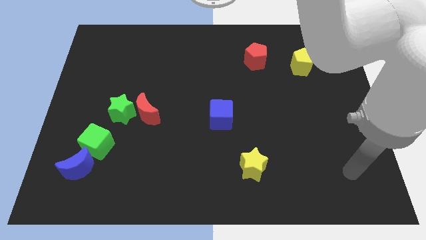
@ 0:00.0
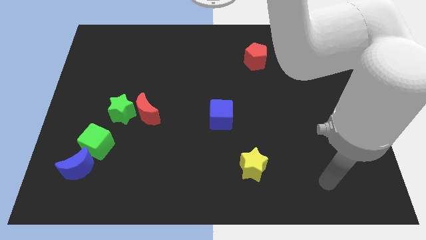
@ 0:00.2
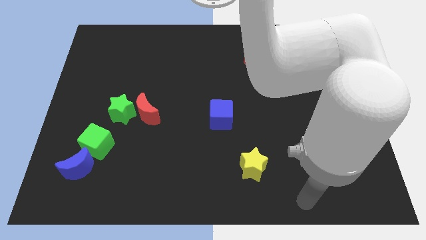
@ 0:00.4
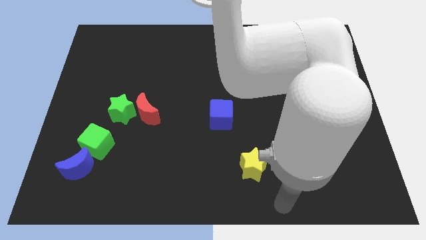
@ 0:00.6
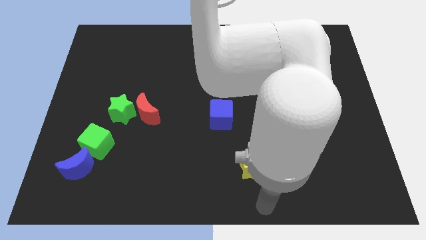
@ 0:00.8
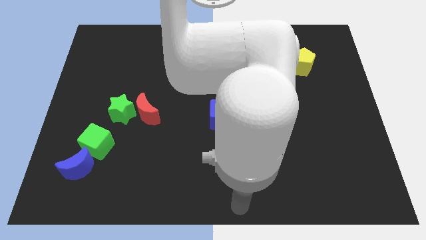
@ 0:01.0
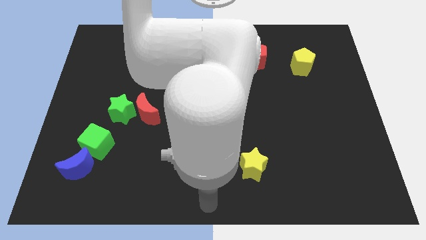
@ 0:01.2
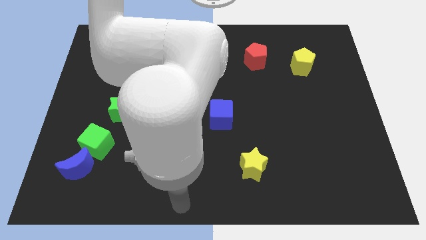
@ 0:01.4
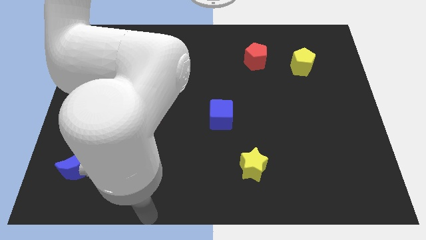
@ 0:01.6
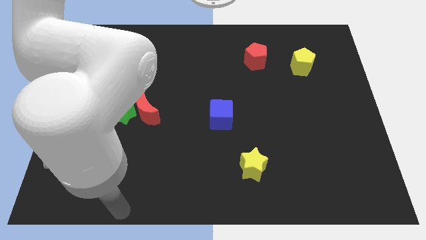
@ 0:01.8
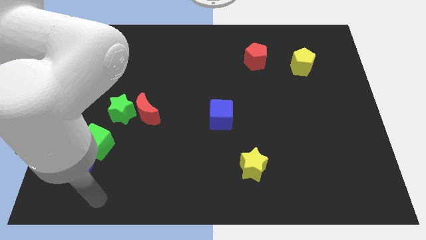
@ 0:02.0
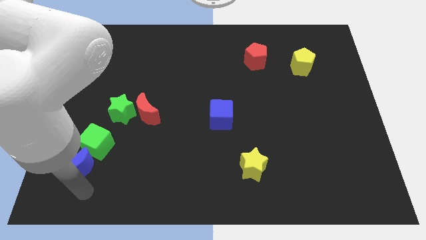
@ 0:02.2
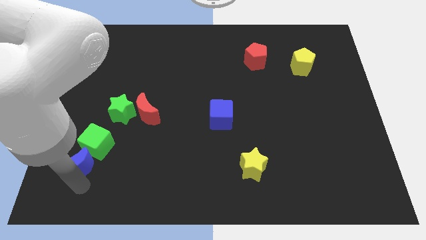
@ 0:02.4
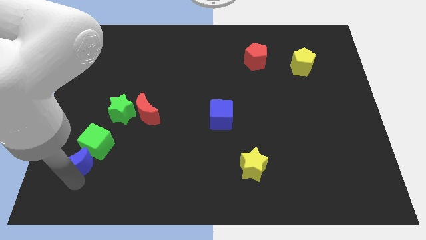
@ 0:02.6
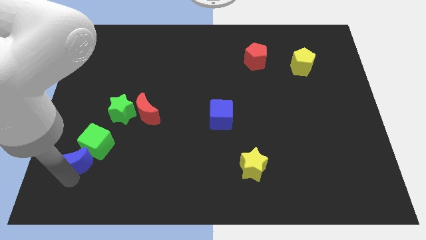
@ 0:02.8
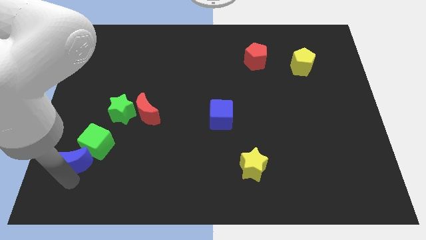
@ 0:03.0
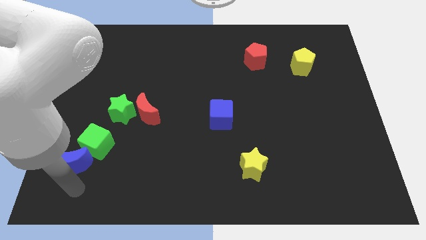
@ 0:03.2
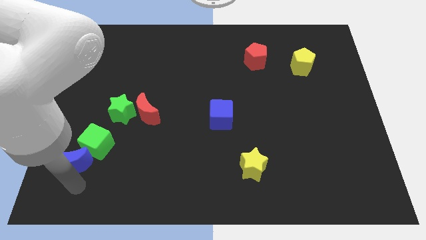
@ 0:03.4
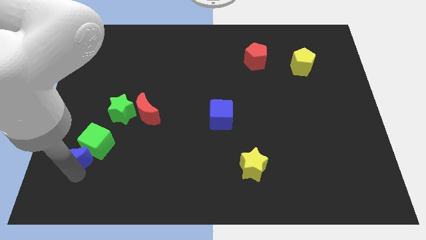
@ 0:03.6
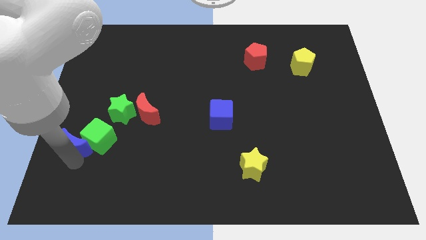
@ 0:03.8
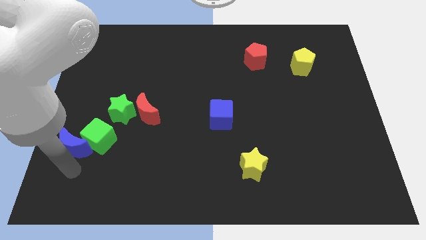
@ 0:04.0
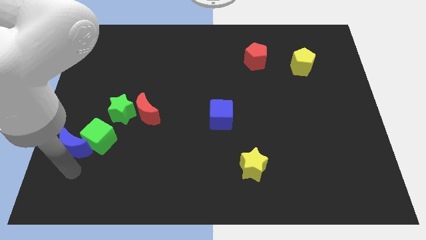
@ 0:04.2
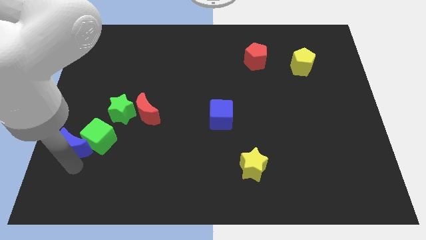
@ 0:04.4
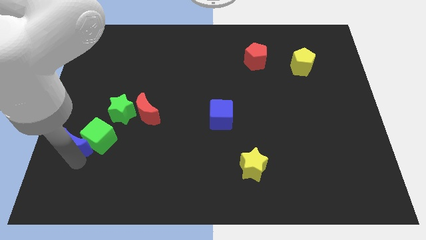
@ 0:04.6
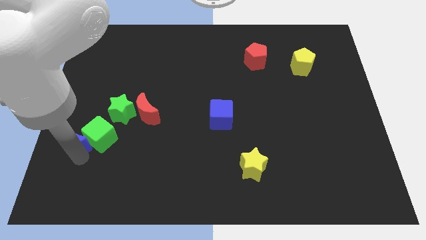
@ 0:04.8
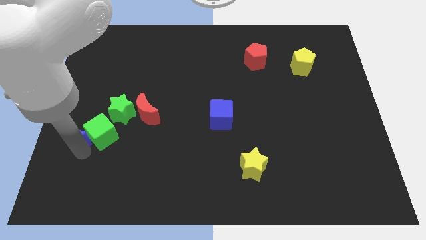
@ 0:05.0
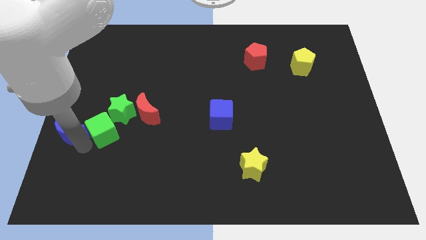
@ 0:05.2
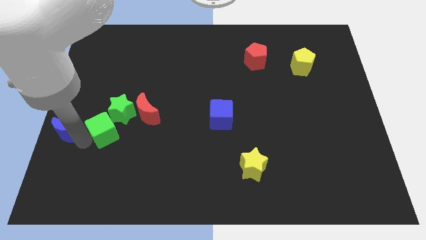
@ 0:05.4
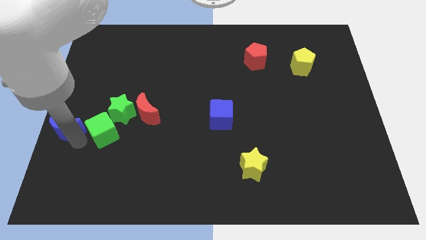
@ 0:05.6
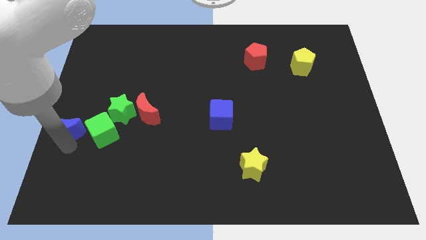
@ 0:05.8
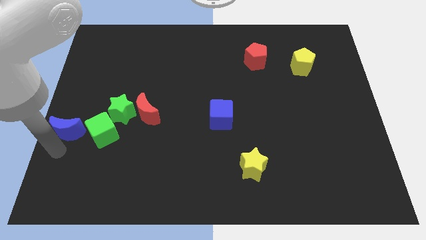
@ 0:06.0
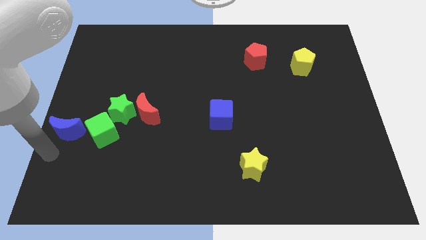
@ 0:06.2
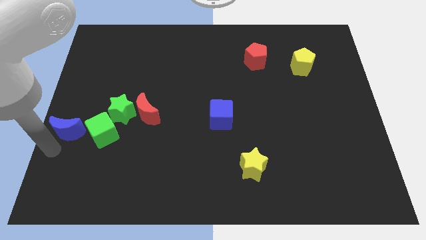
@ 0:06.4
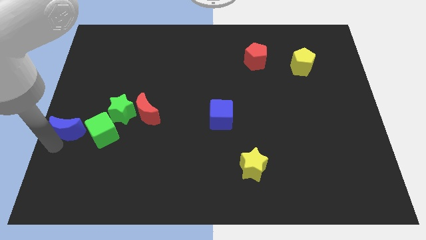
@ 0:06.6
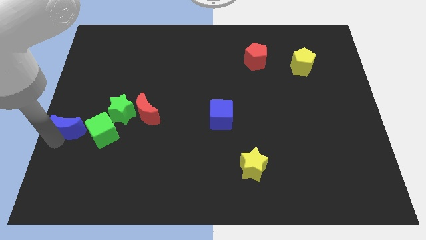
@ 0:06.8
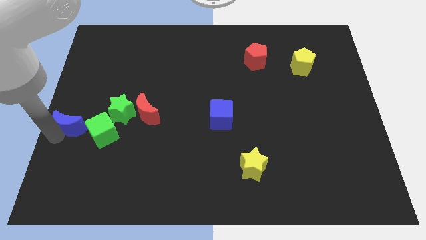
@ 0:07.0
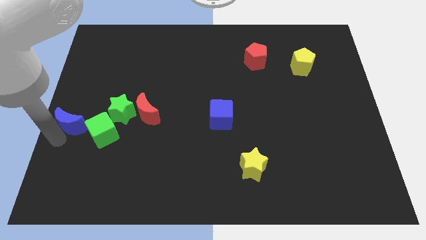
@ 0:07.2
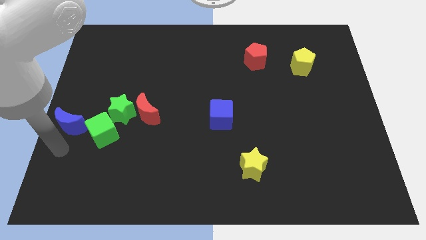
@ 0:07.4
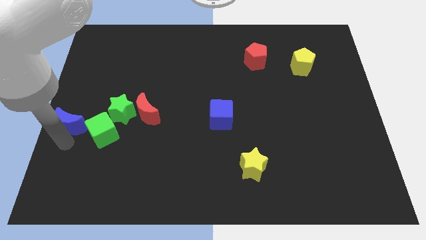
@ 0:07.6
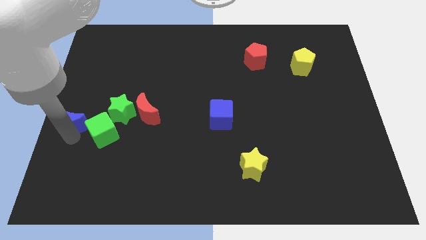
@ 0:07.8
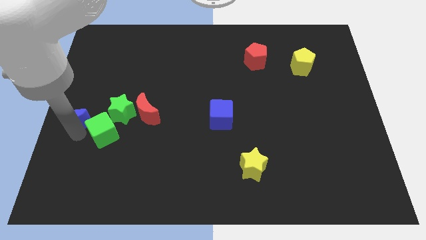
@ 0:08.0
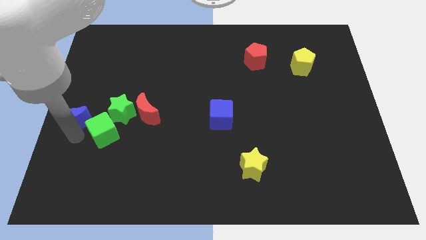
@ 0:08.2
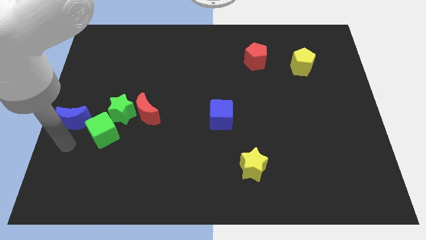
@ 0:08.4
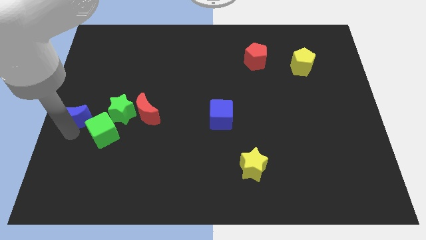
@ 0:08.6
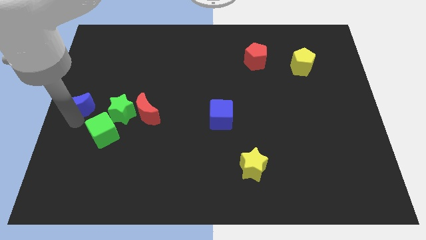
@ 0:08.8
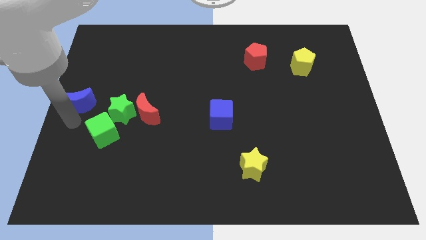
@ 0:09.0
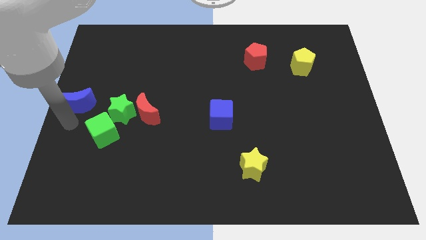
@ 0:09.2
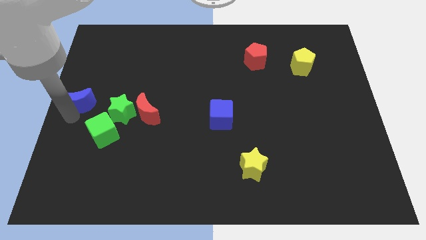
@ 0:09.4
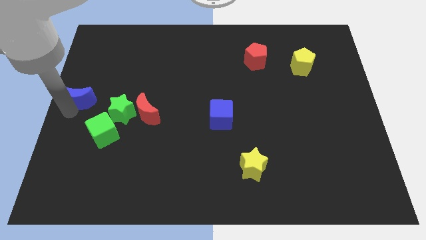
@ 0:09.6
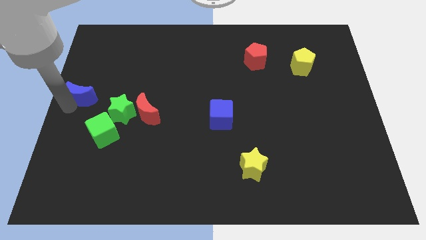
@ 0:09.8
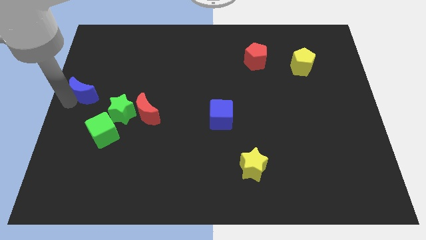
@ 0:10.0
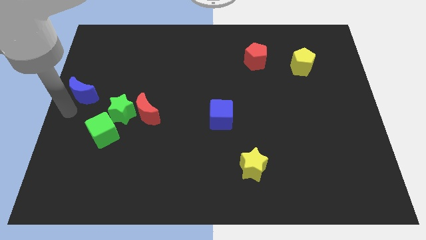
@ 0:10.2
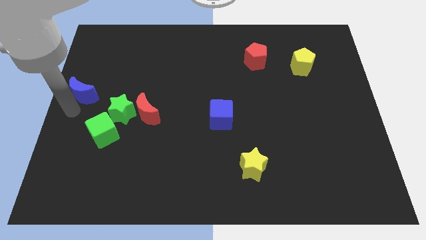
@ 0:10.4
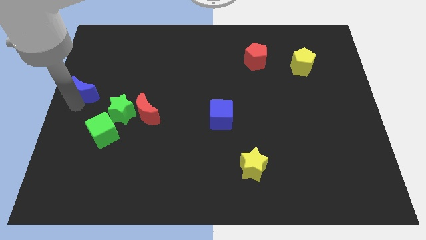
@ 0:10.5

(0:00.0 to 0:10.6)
push the blue moon up

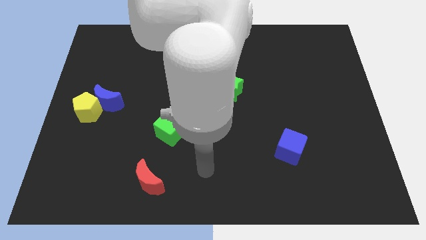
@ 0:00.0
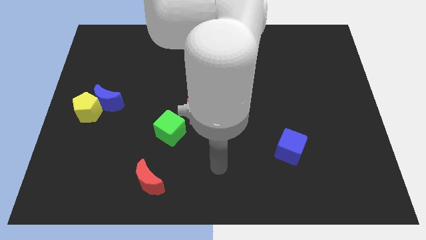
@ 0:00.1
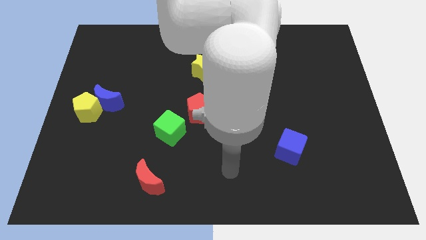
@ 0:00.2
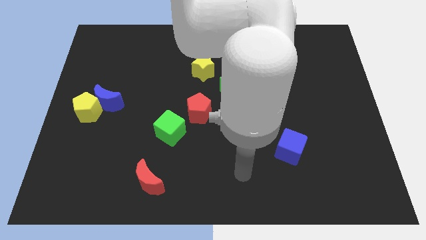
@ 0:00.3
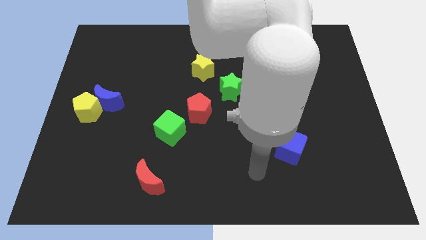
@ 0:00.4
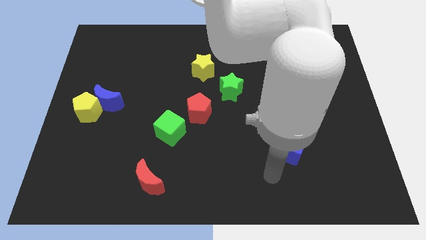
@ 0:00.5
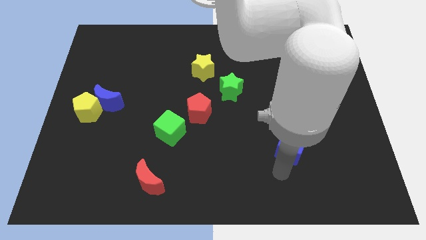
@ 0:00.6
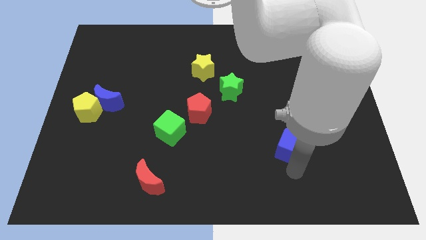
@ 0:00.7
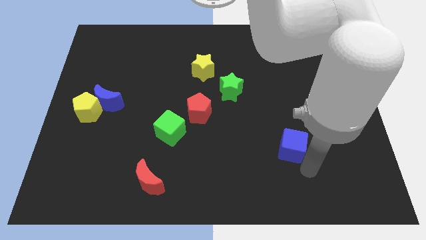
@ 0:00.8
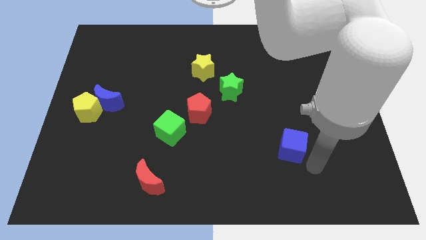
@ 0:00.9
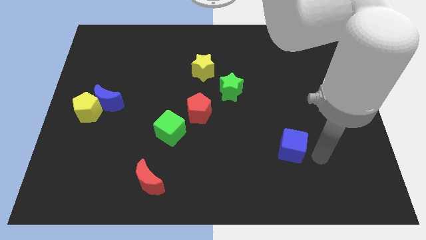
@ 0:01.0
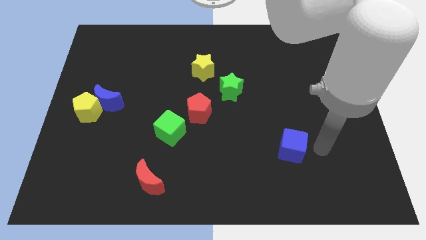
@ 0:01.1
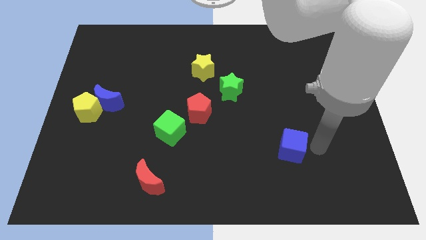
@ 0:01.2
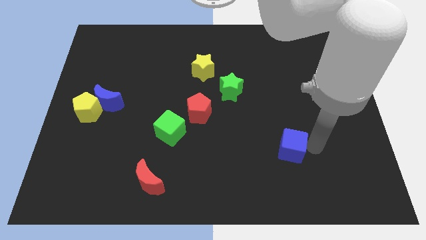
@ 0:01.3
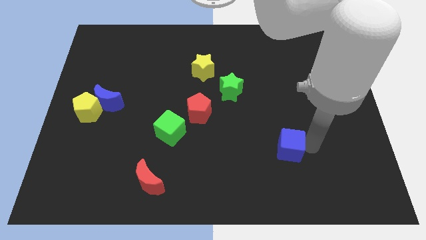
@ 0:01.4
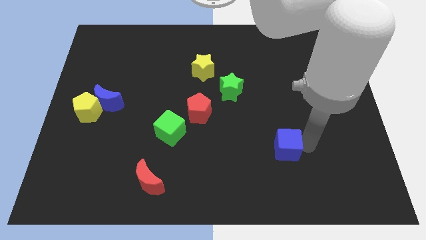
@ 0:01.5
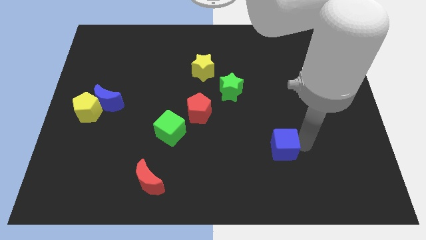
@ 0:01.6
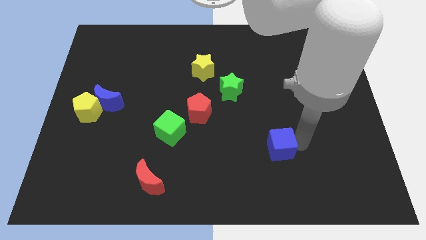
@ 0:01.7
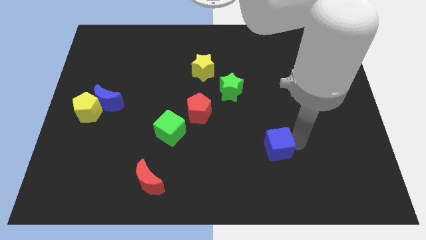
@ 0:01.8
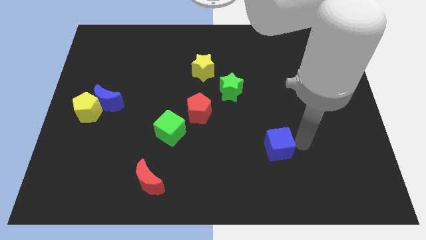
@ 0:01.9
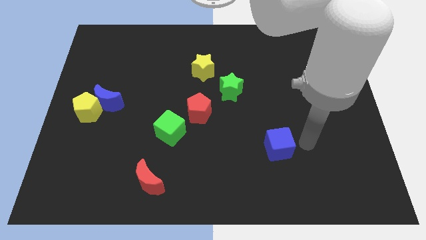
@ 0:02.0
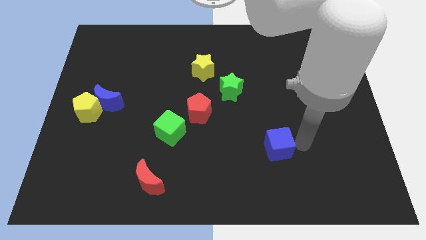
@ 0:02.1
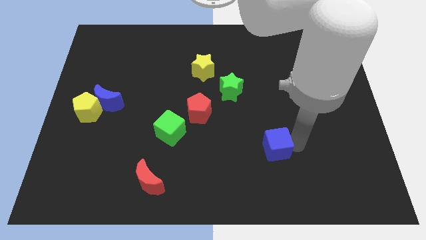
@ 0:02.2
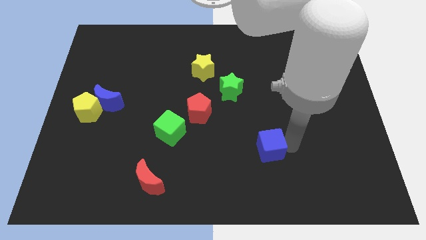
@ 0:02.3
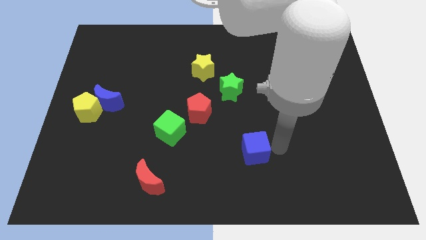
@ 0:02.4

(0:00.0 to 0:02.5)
slide the blue cube somewhat to the left
